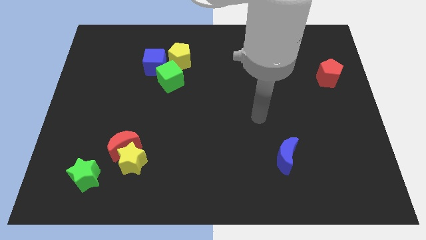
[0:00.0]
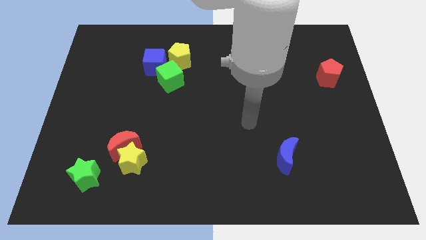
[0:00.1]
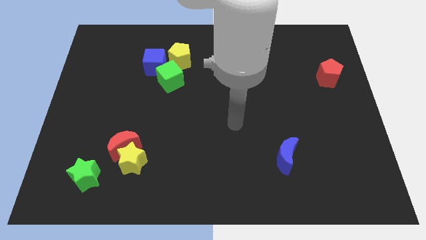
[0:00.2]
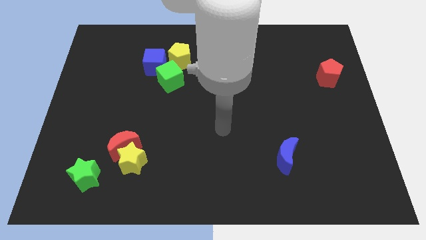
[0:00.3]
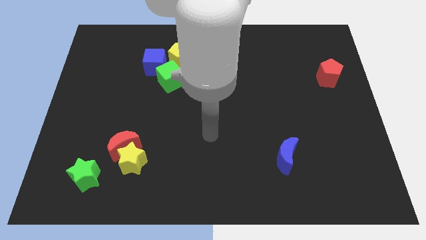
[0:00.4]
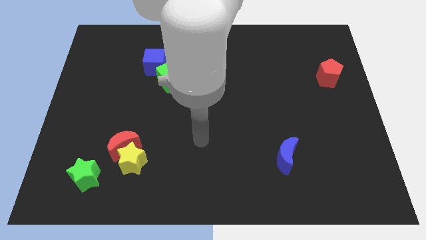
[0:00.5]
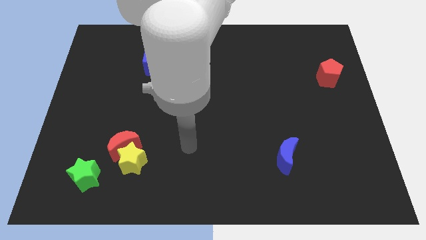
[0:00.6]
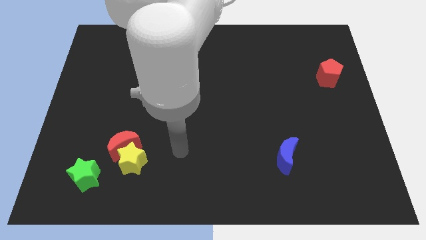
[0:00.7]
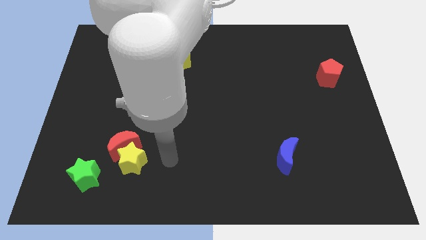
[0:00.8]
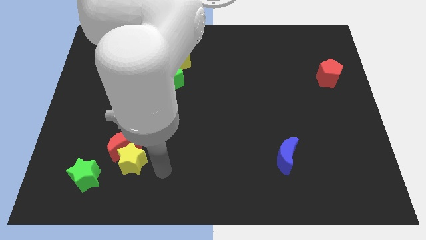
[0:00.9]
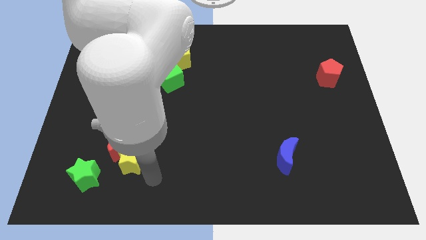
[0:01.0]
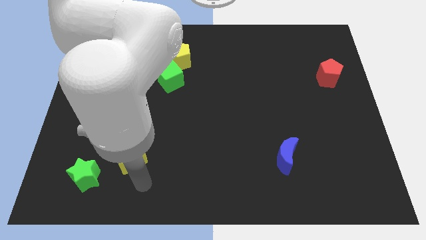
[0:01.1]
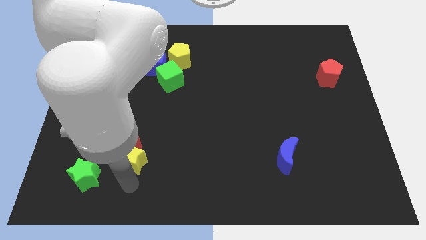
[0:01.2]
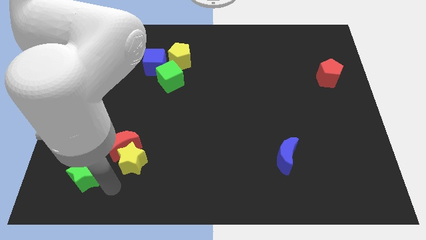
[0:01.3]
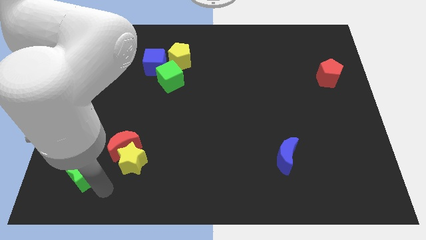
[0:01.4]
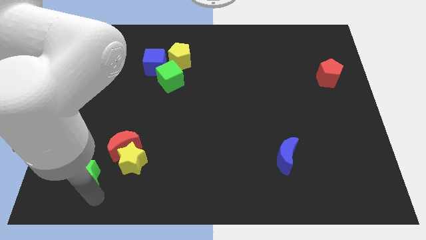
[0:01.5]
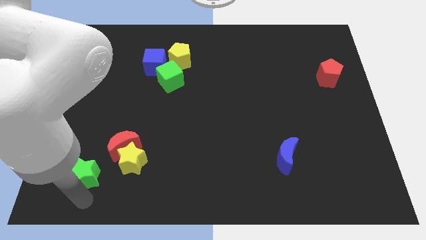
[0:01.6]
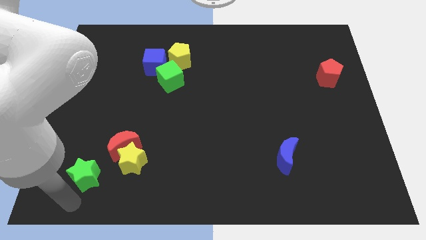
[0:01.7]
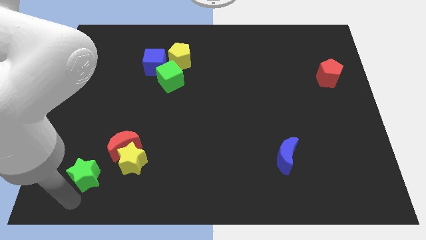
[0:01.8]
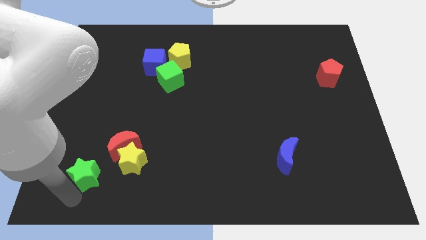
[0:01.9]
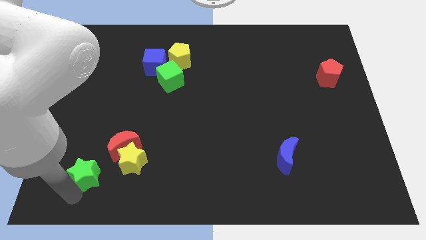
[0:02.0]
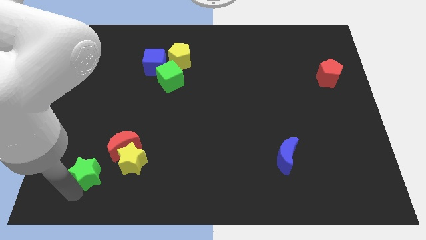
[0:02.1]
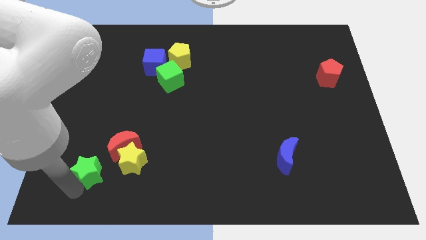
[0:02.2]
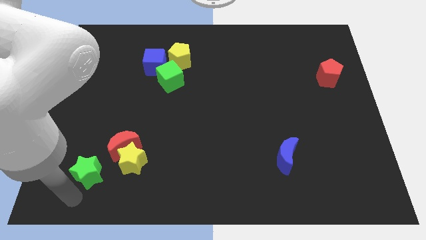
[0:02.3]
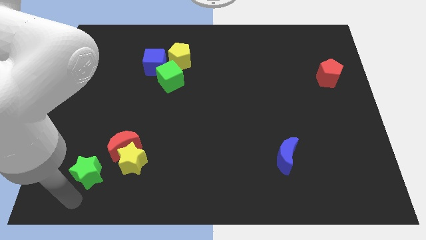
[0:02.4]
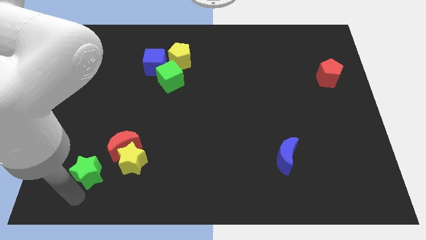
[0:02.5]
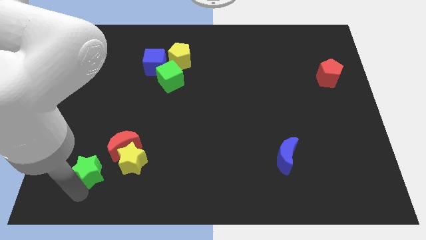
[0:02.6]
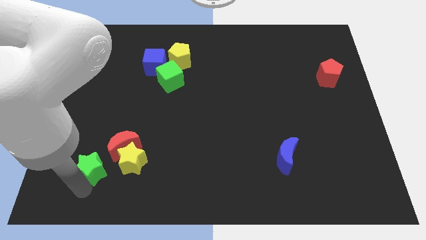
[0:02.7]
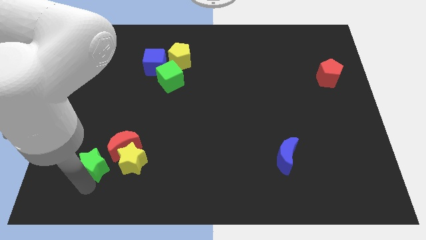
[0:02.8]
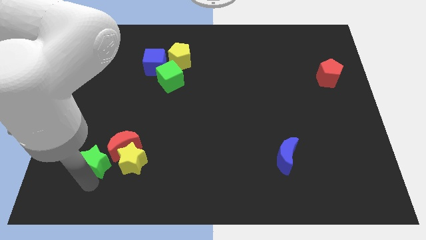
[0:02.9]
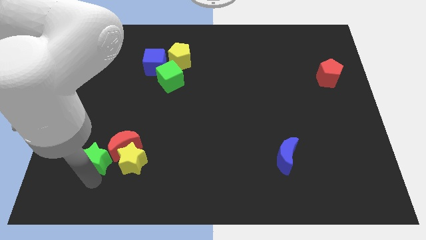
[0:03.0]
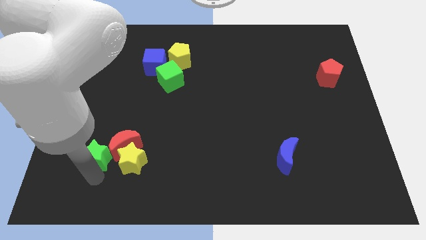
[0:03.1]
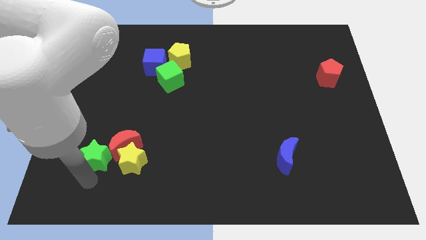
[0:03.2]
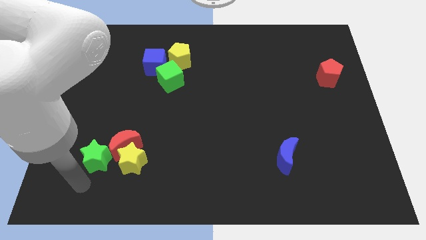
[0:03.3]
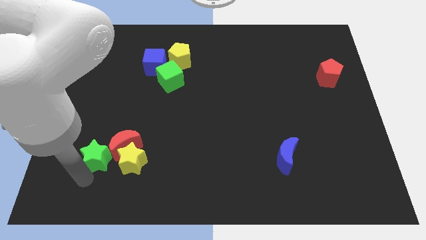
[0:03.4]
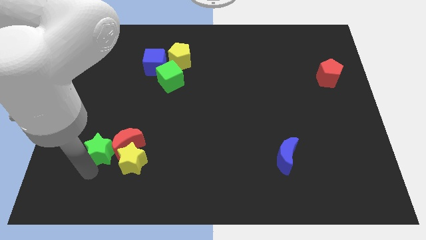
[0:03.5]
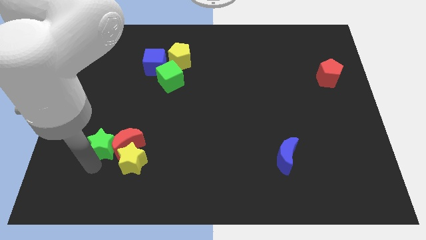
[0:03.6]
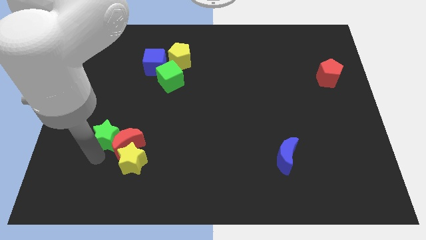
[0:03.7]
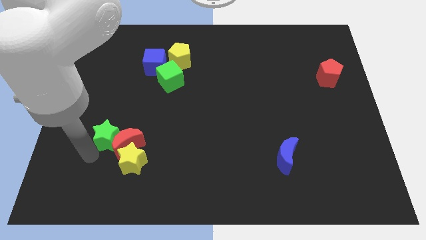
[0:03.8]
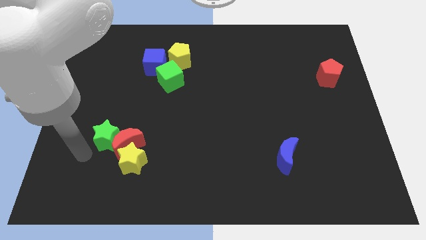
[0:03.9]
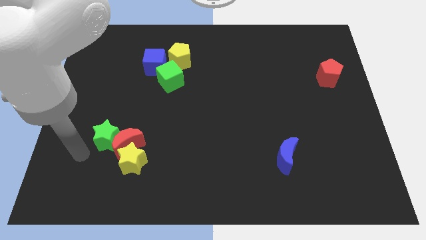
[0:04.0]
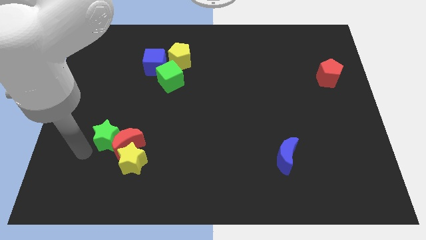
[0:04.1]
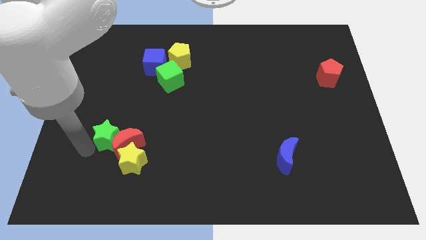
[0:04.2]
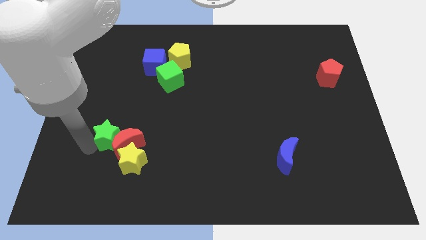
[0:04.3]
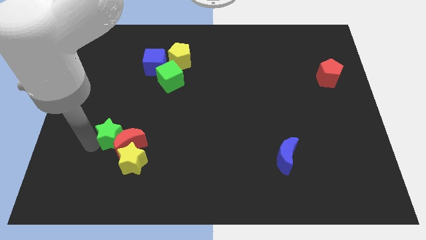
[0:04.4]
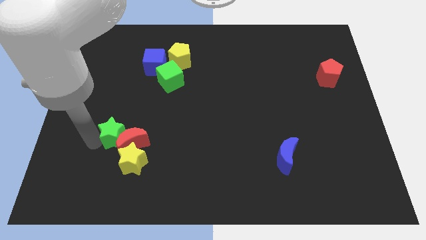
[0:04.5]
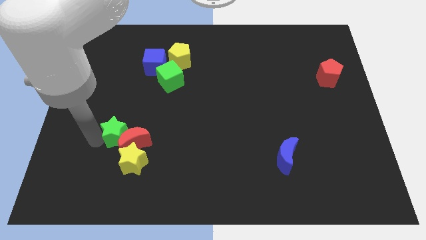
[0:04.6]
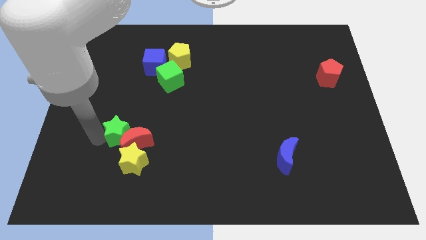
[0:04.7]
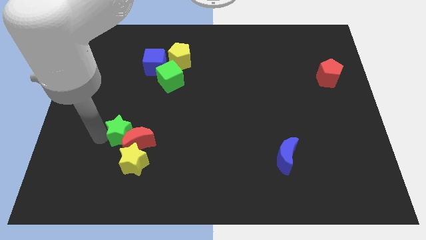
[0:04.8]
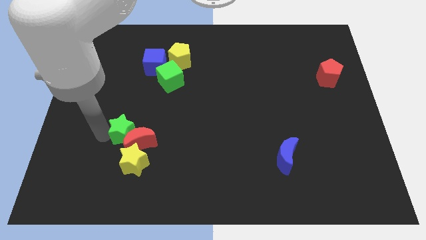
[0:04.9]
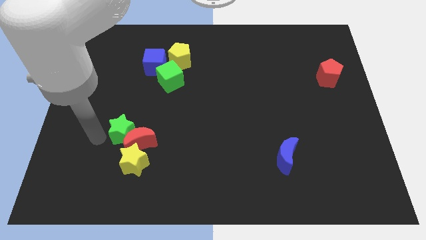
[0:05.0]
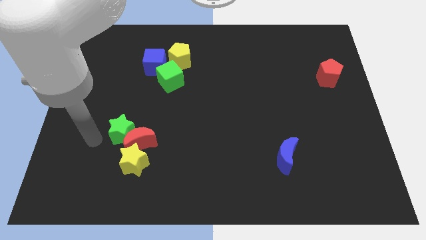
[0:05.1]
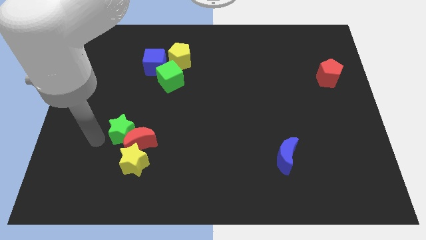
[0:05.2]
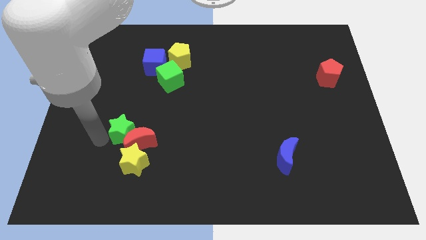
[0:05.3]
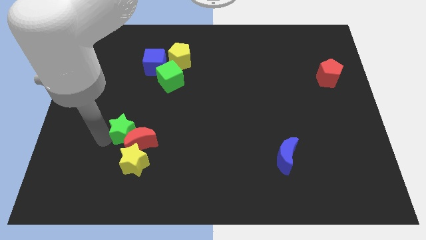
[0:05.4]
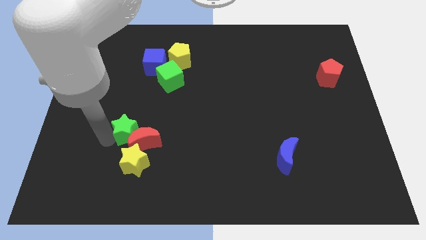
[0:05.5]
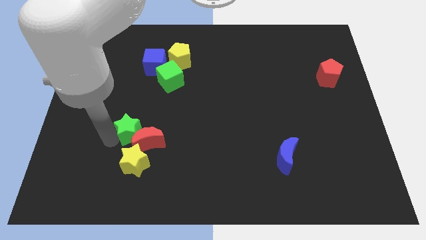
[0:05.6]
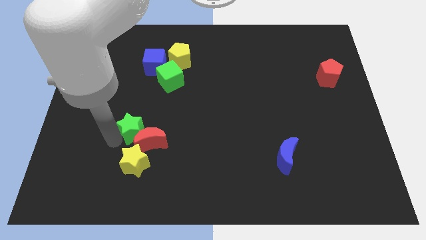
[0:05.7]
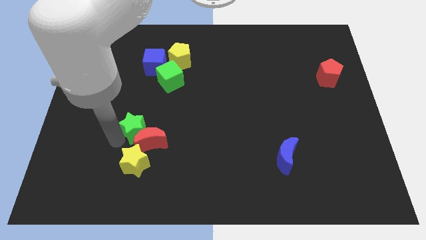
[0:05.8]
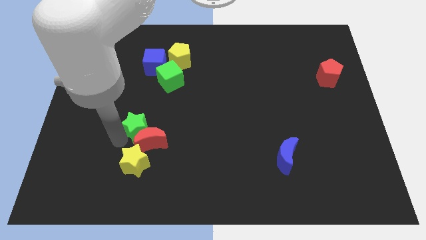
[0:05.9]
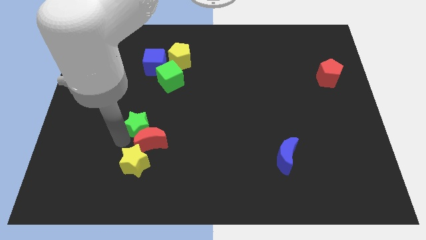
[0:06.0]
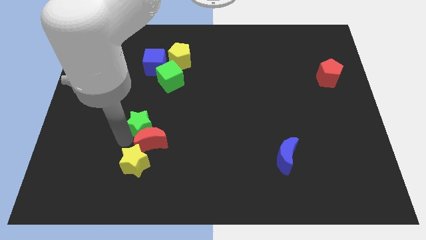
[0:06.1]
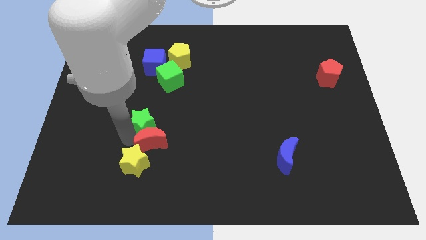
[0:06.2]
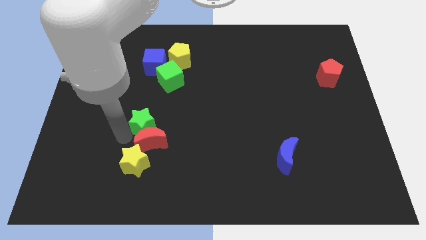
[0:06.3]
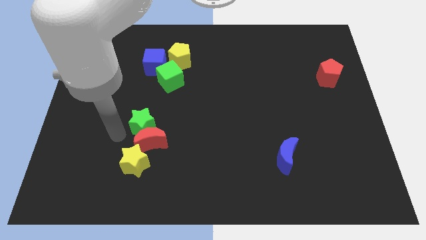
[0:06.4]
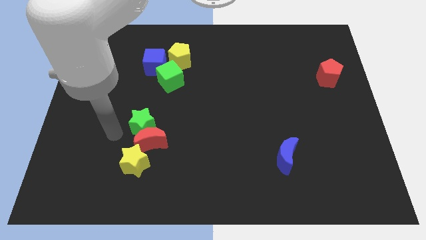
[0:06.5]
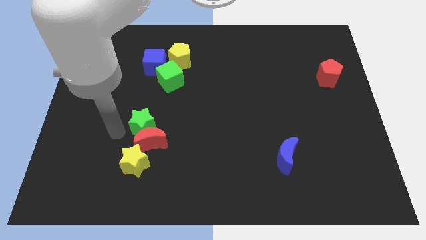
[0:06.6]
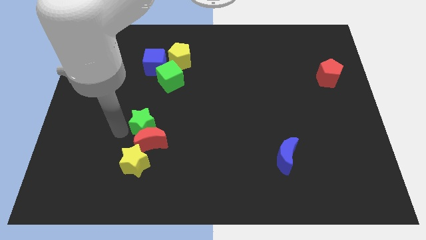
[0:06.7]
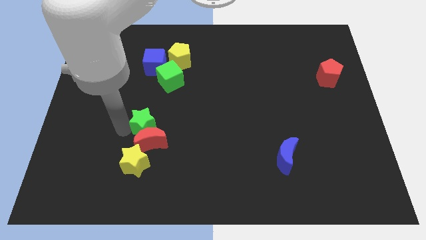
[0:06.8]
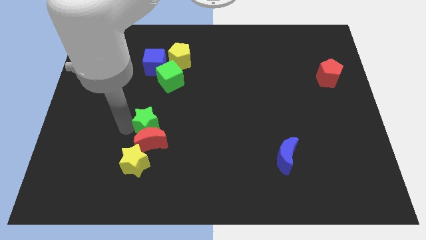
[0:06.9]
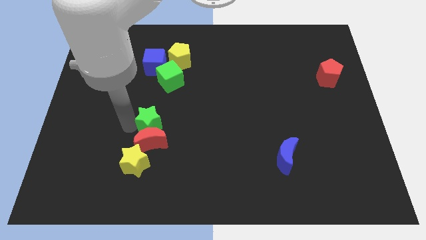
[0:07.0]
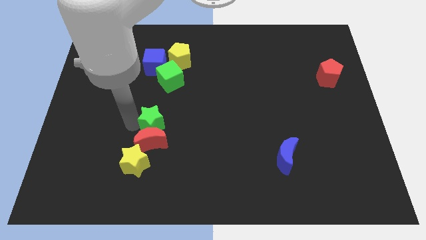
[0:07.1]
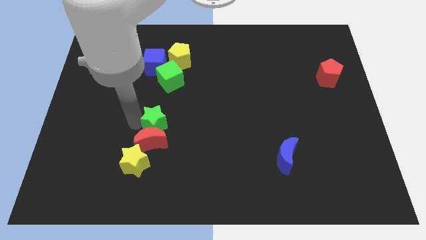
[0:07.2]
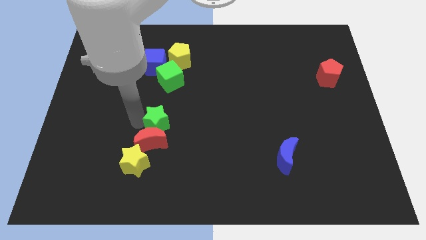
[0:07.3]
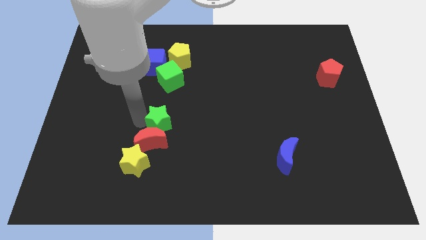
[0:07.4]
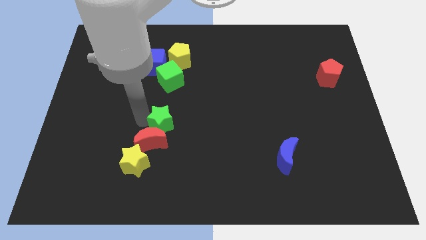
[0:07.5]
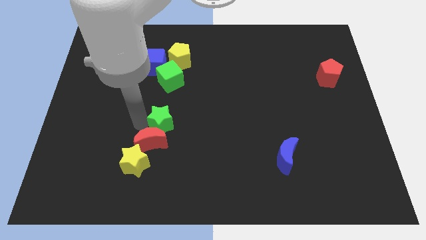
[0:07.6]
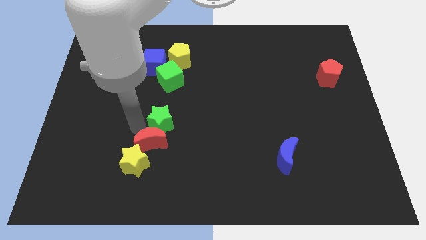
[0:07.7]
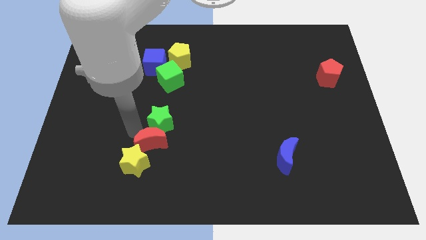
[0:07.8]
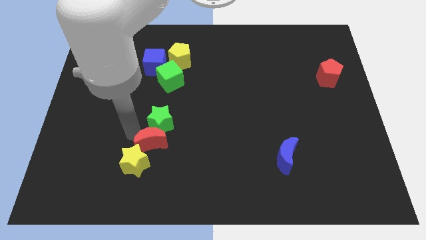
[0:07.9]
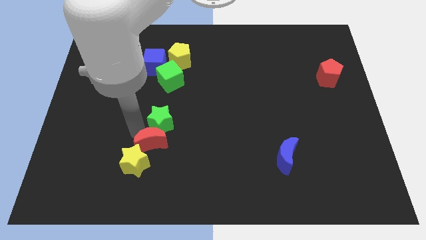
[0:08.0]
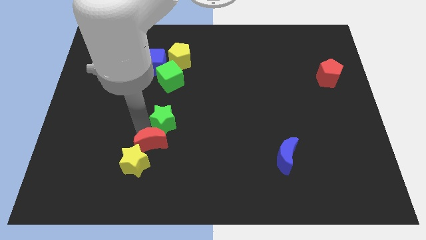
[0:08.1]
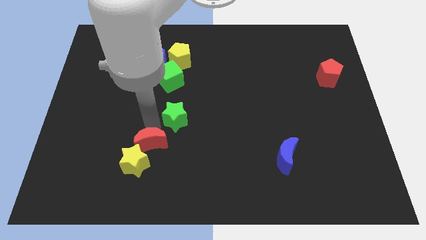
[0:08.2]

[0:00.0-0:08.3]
slide the green star to the middle
